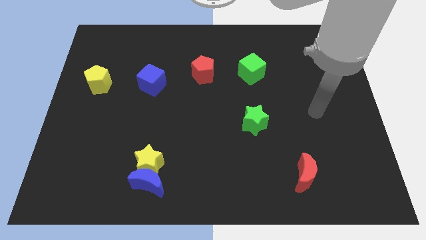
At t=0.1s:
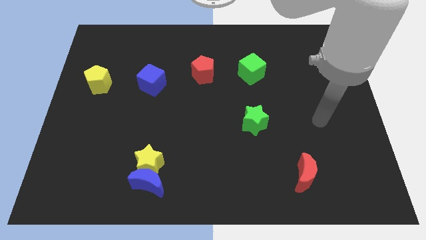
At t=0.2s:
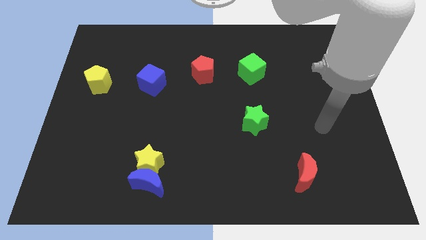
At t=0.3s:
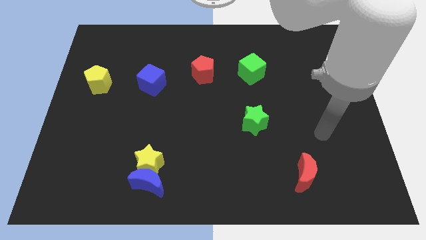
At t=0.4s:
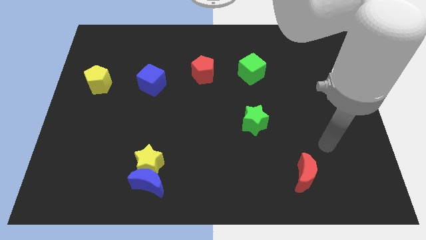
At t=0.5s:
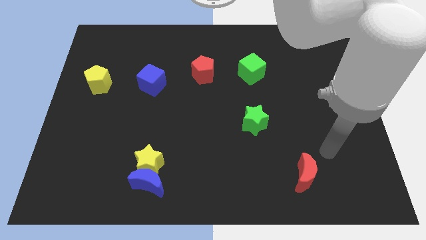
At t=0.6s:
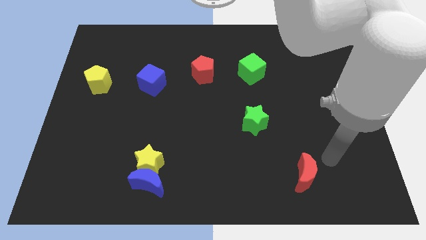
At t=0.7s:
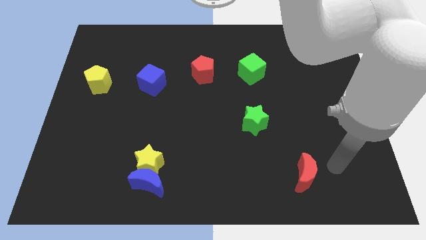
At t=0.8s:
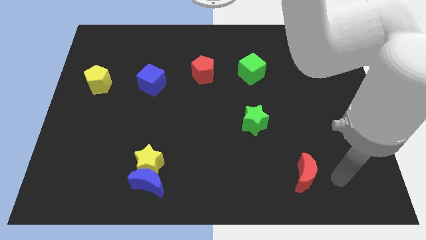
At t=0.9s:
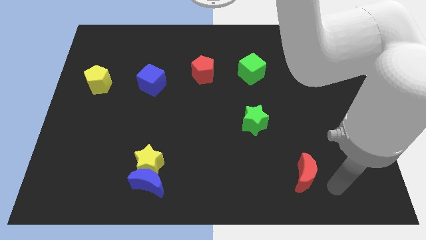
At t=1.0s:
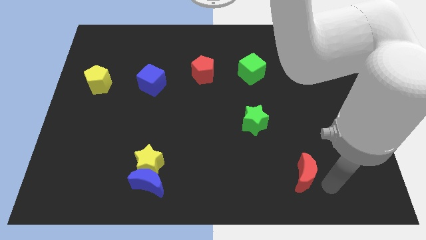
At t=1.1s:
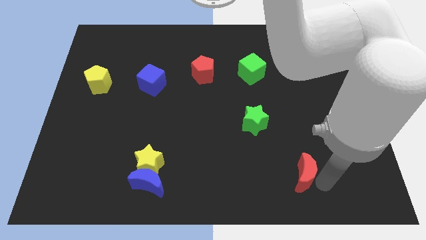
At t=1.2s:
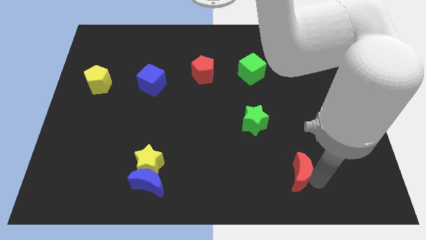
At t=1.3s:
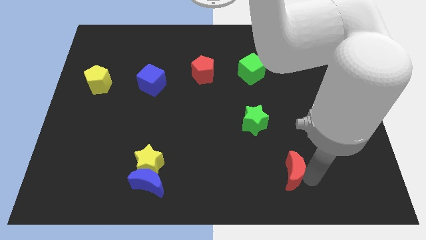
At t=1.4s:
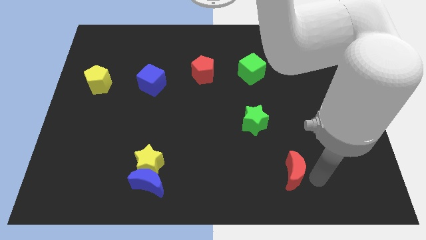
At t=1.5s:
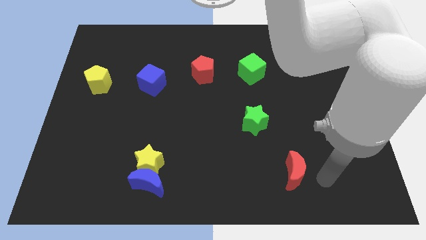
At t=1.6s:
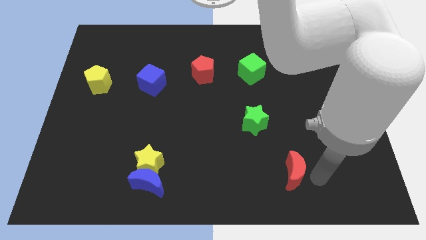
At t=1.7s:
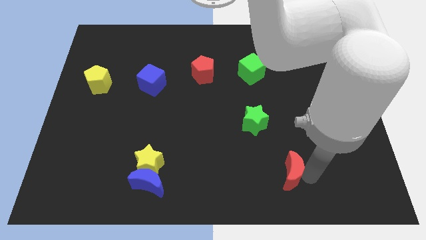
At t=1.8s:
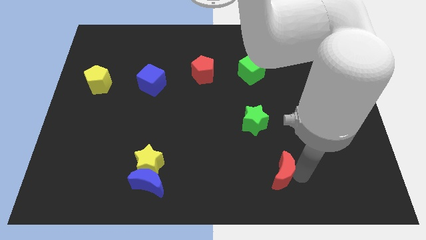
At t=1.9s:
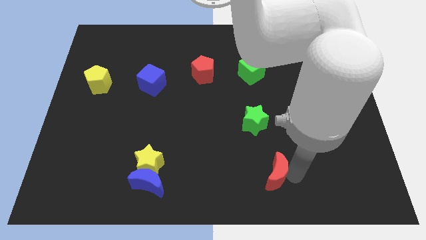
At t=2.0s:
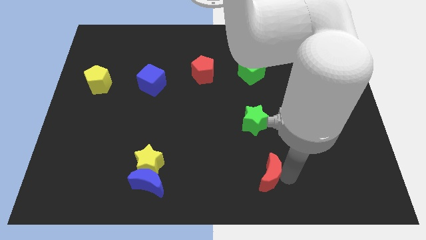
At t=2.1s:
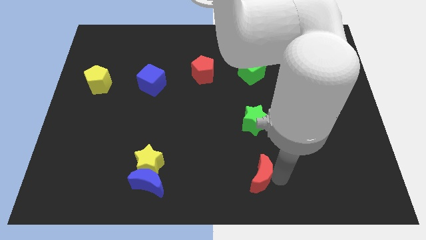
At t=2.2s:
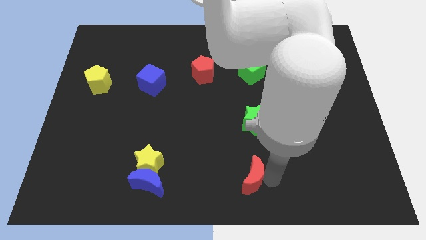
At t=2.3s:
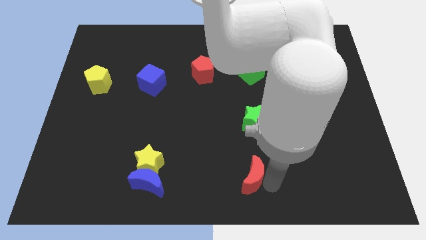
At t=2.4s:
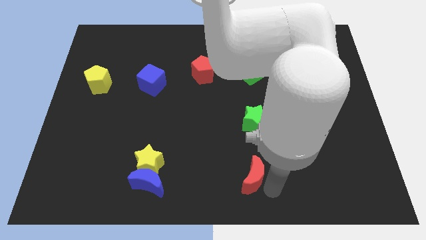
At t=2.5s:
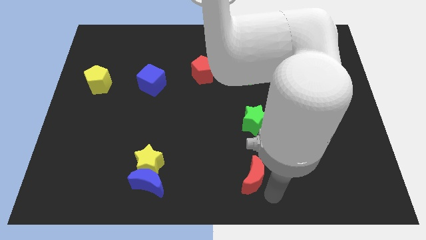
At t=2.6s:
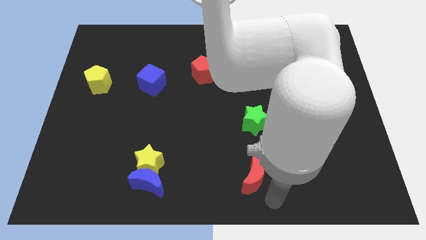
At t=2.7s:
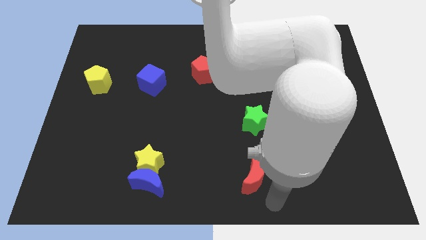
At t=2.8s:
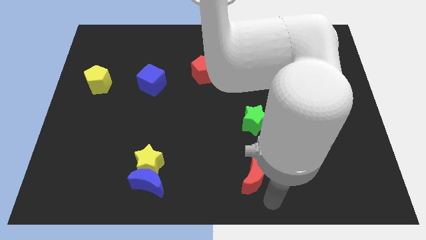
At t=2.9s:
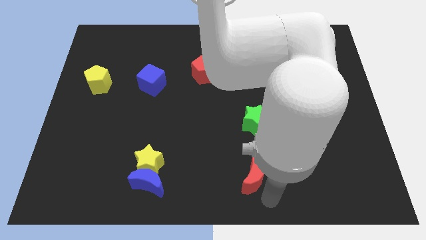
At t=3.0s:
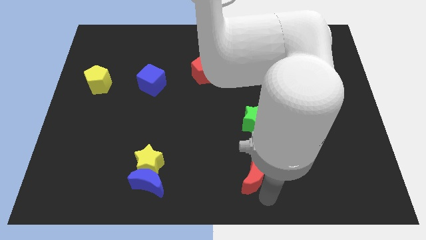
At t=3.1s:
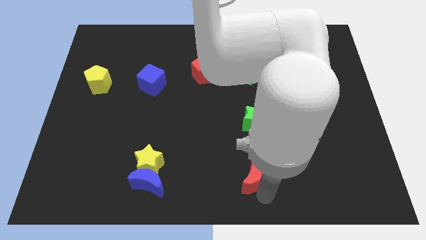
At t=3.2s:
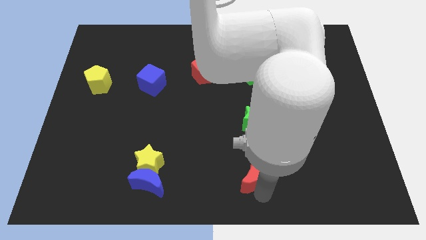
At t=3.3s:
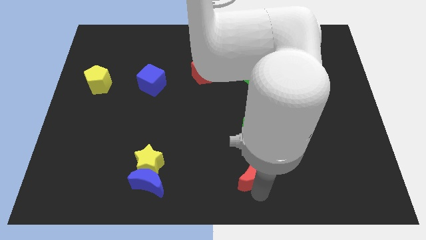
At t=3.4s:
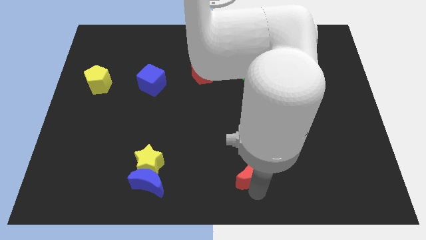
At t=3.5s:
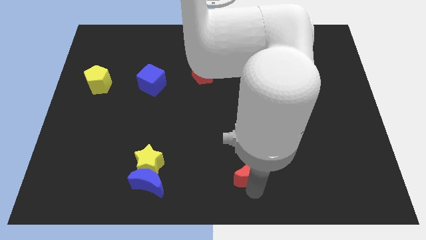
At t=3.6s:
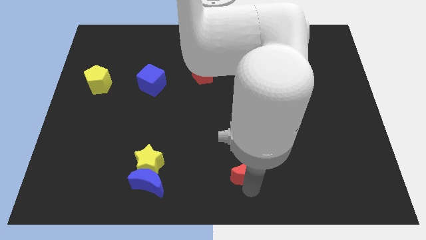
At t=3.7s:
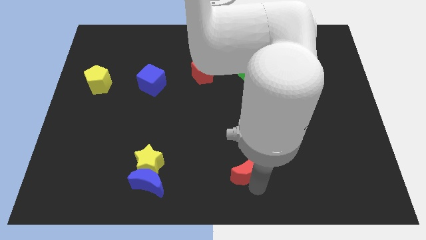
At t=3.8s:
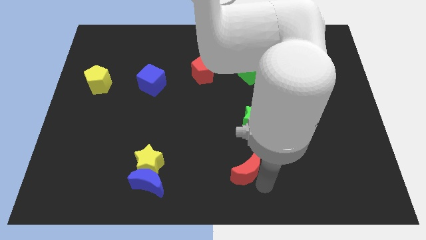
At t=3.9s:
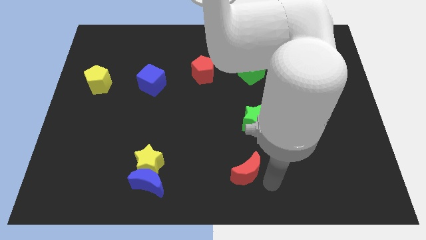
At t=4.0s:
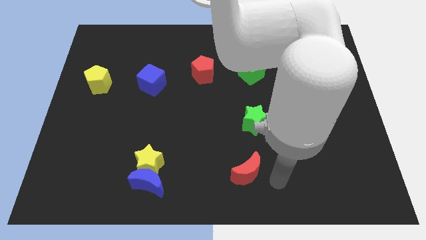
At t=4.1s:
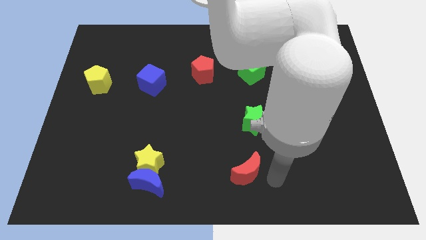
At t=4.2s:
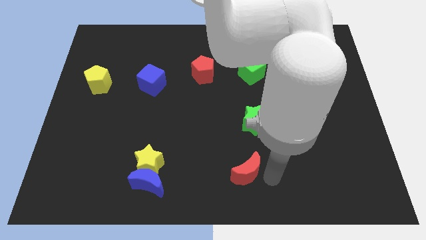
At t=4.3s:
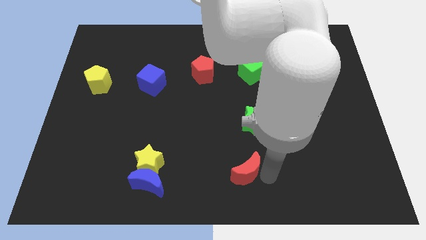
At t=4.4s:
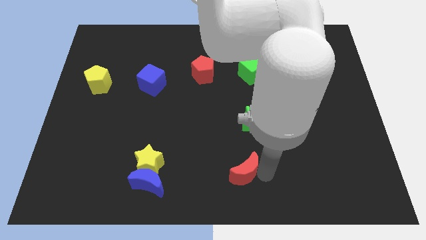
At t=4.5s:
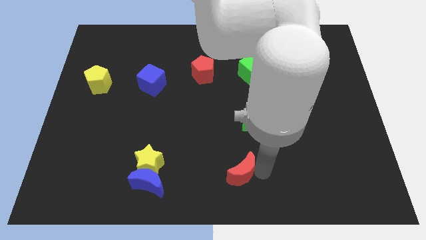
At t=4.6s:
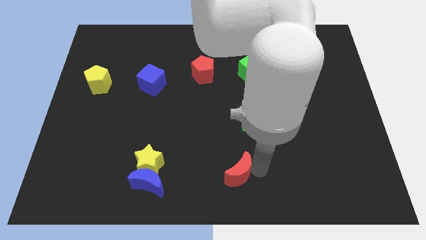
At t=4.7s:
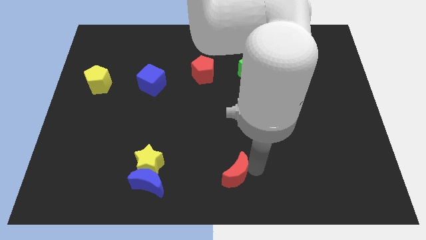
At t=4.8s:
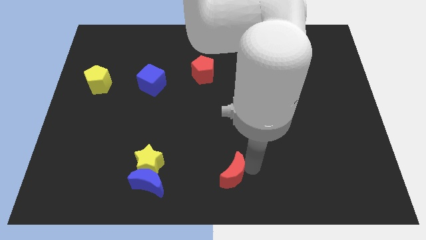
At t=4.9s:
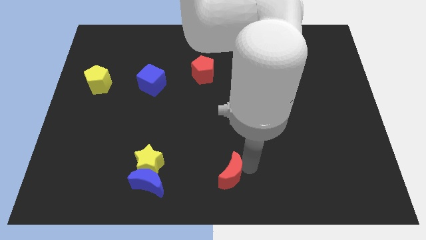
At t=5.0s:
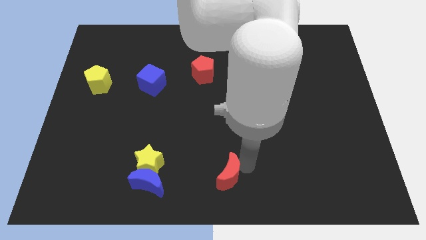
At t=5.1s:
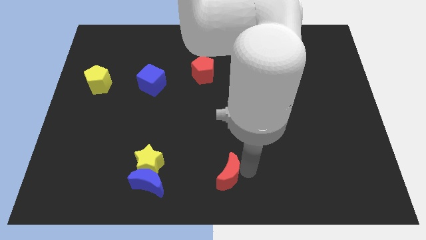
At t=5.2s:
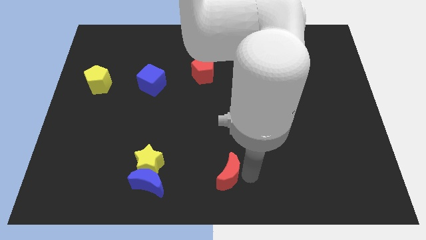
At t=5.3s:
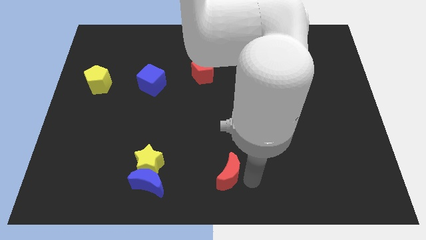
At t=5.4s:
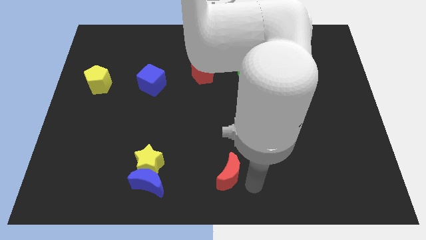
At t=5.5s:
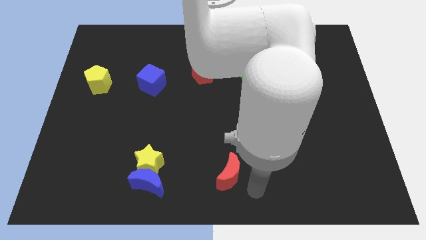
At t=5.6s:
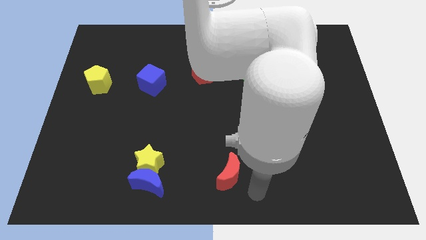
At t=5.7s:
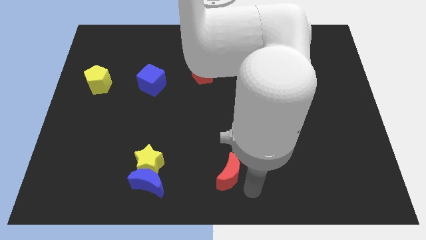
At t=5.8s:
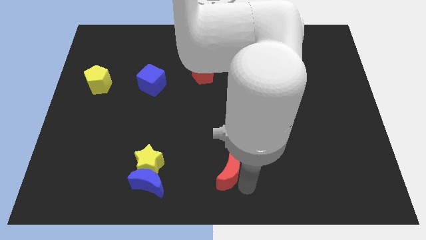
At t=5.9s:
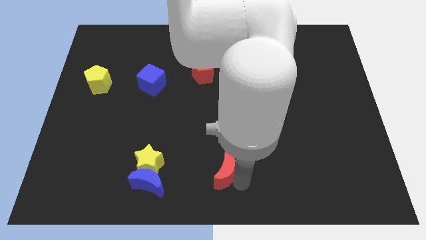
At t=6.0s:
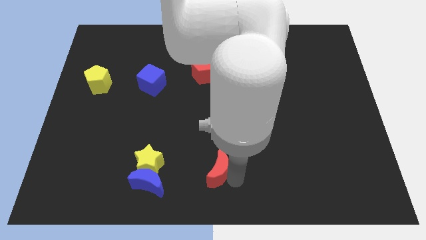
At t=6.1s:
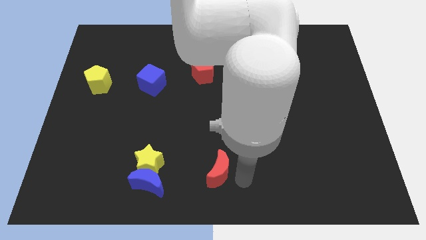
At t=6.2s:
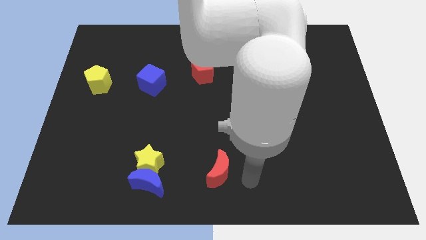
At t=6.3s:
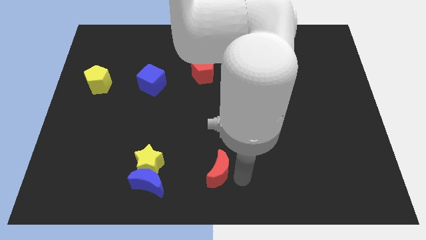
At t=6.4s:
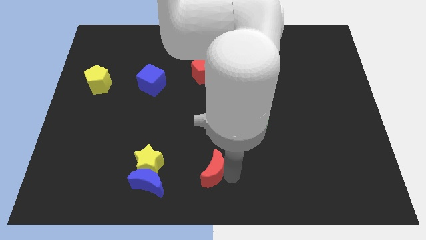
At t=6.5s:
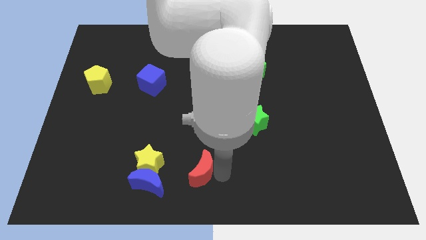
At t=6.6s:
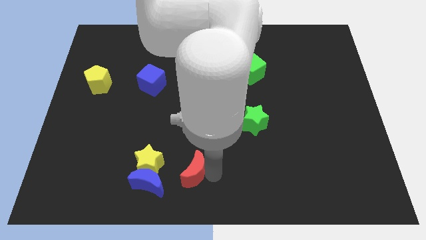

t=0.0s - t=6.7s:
move the red moon to the top right of the blue moon

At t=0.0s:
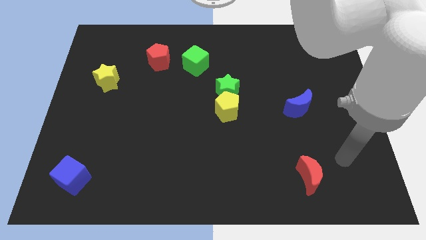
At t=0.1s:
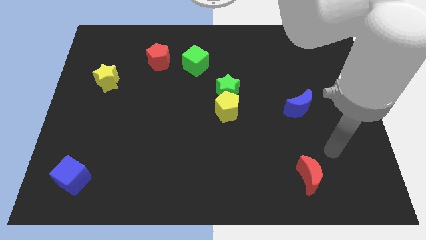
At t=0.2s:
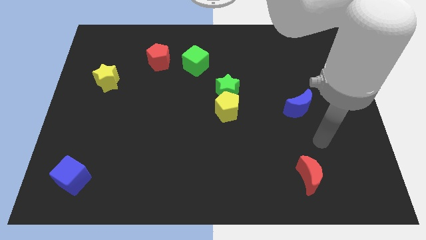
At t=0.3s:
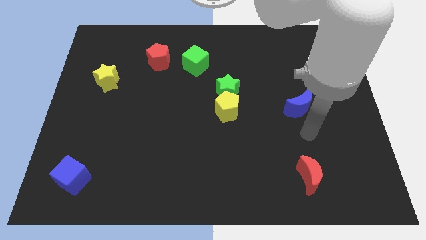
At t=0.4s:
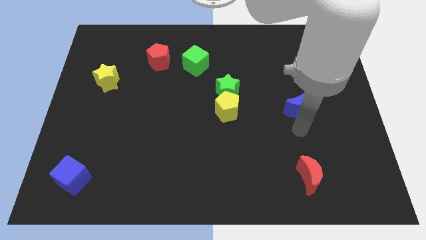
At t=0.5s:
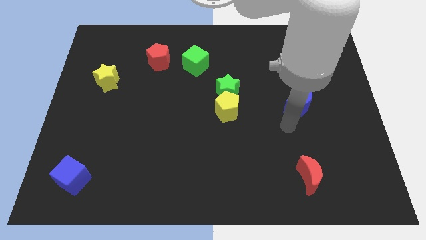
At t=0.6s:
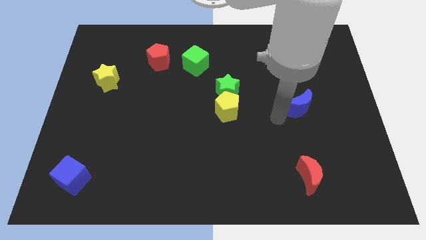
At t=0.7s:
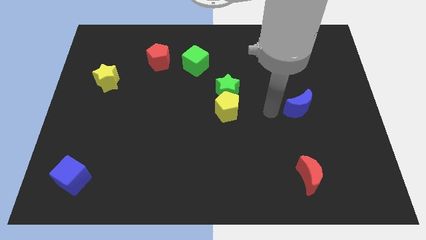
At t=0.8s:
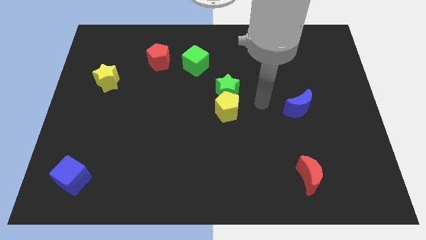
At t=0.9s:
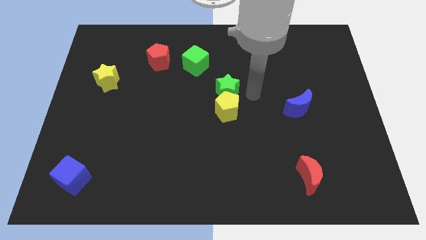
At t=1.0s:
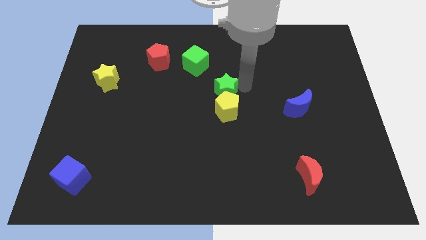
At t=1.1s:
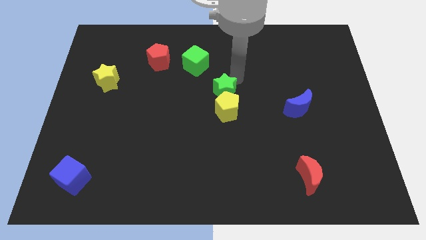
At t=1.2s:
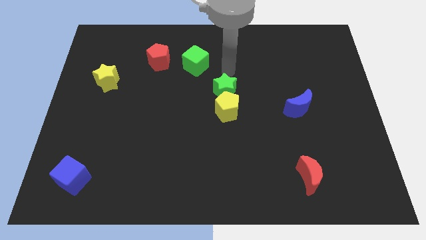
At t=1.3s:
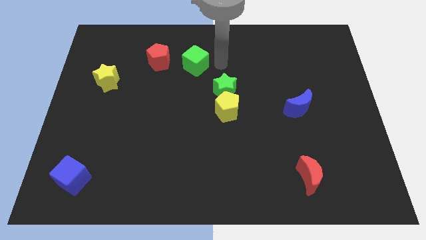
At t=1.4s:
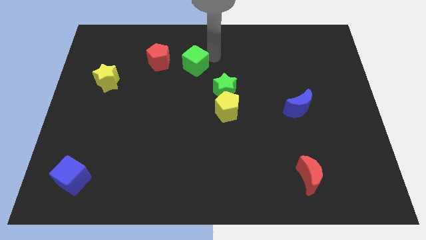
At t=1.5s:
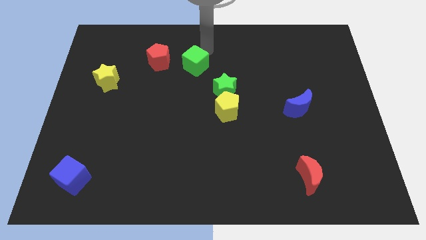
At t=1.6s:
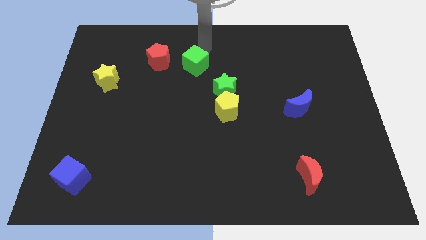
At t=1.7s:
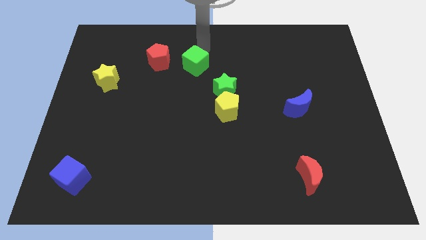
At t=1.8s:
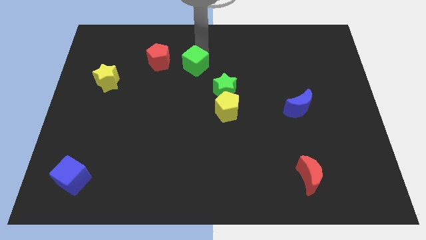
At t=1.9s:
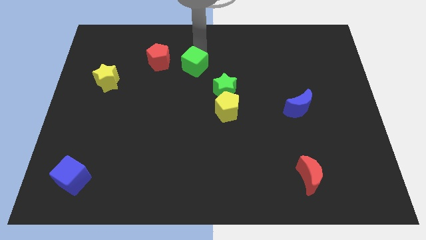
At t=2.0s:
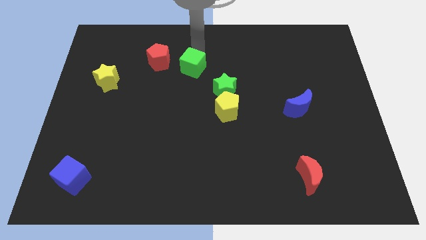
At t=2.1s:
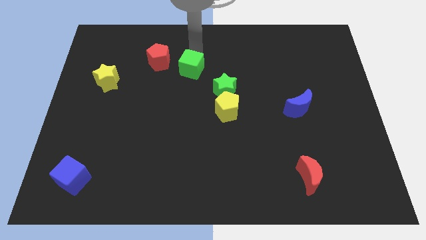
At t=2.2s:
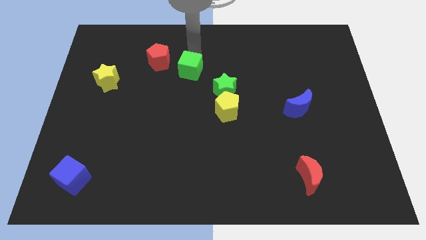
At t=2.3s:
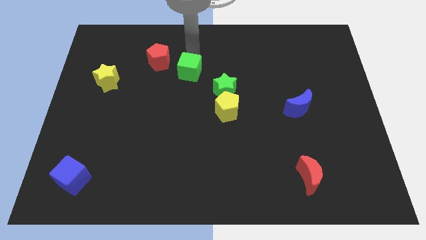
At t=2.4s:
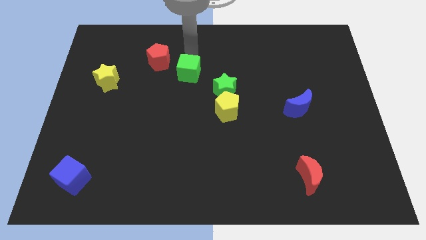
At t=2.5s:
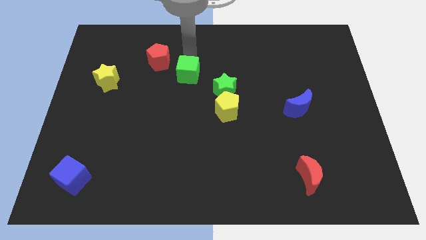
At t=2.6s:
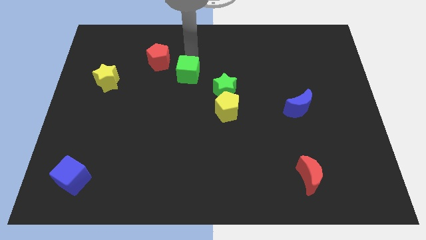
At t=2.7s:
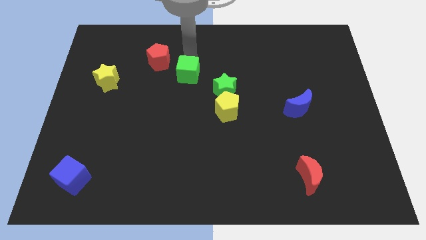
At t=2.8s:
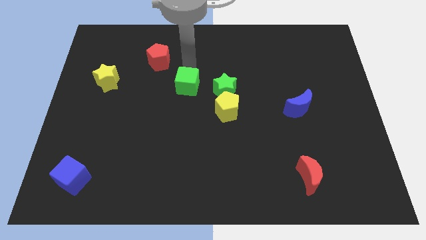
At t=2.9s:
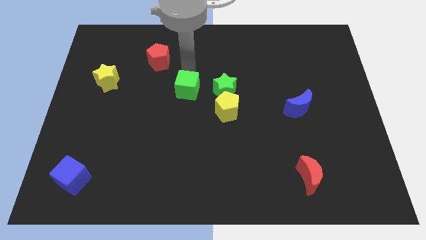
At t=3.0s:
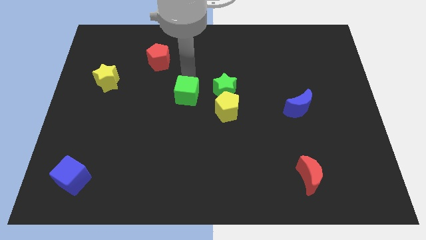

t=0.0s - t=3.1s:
put the green cube to the left of the yellow pentagon
